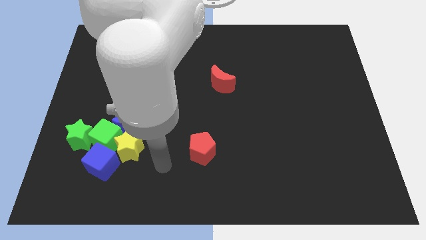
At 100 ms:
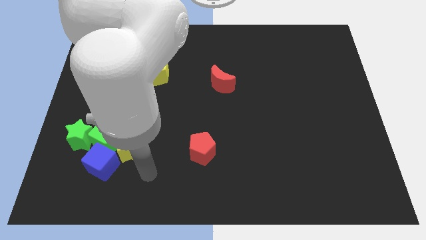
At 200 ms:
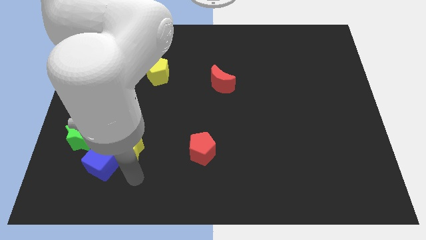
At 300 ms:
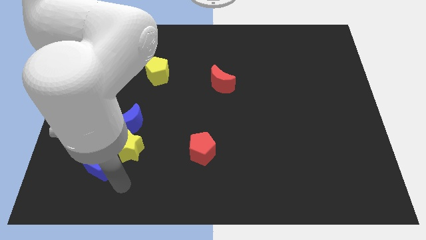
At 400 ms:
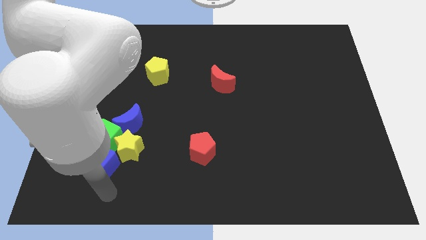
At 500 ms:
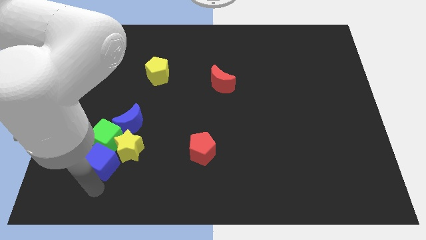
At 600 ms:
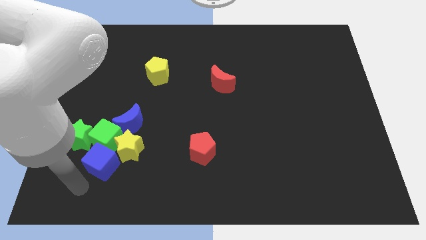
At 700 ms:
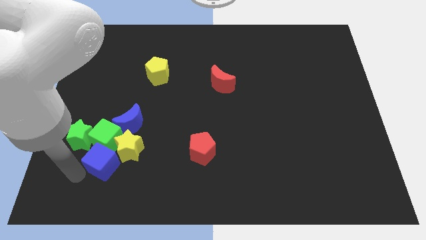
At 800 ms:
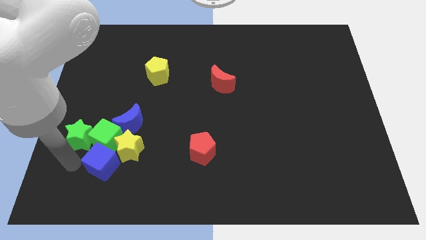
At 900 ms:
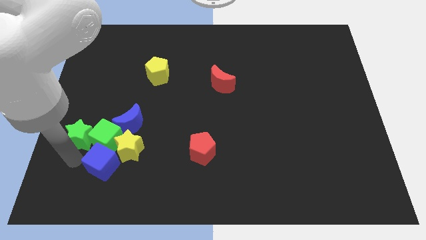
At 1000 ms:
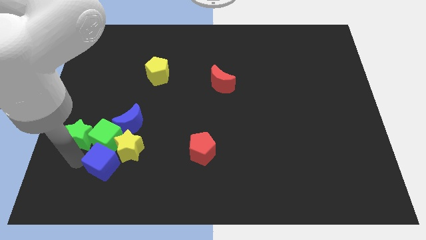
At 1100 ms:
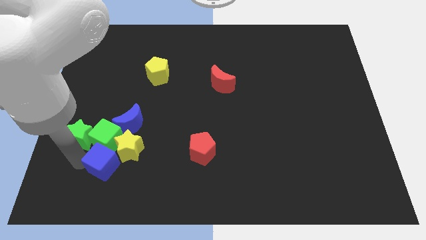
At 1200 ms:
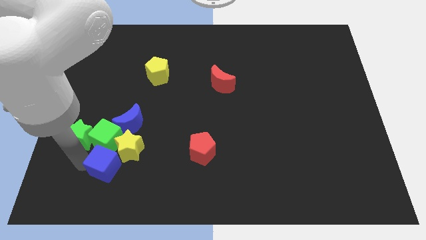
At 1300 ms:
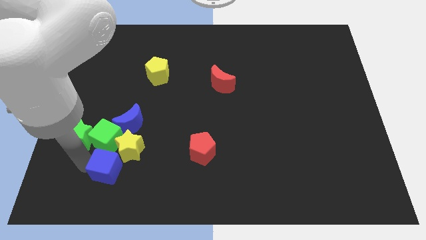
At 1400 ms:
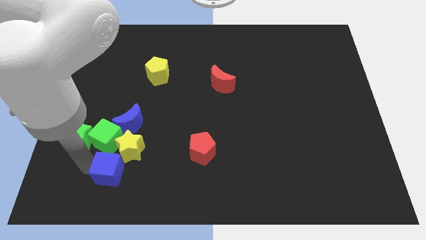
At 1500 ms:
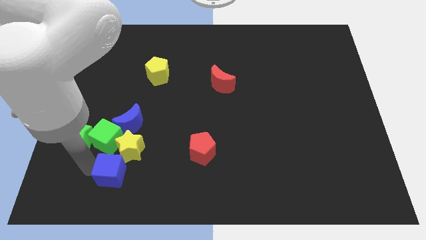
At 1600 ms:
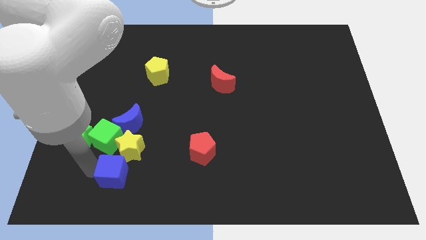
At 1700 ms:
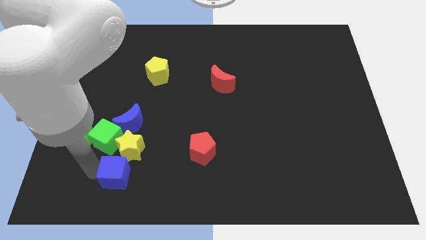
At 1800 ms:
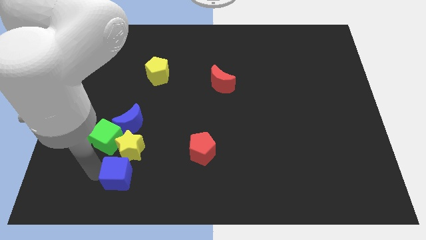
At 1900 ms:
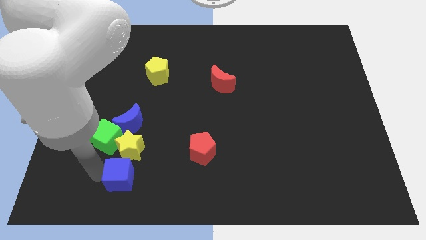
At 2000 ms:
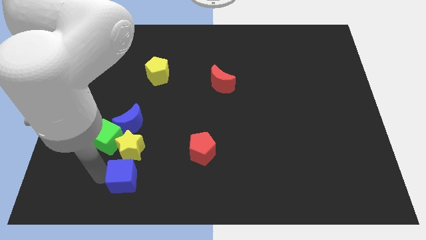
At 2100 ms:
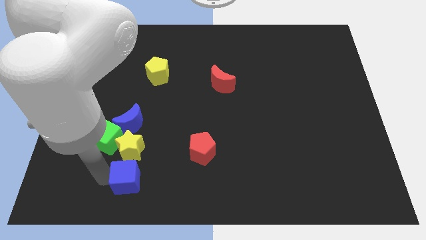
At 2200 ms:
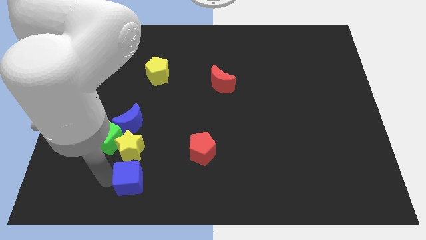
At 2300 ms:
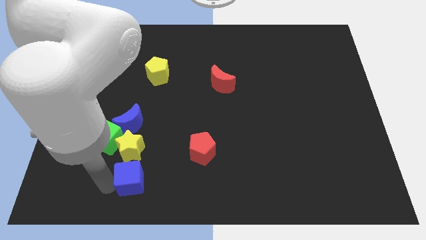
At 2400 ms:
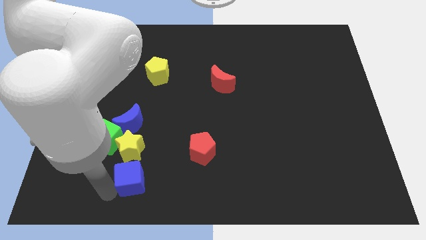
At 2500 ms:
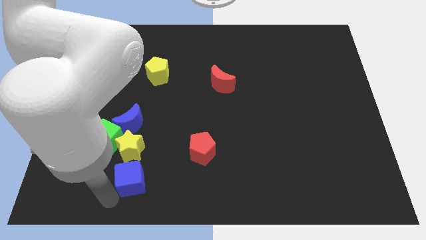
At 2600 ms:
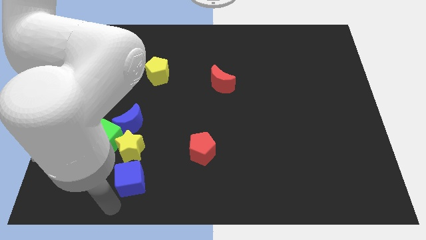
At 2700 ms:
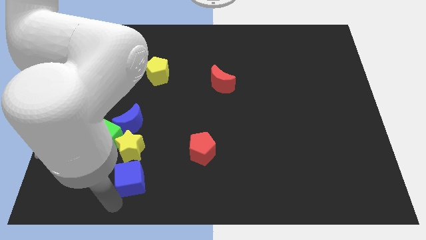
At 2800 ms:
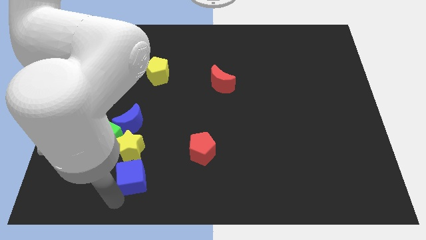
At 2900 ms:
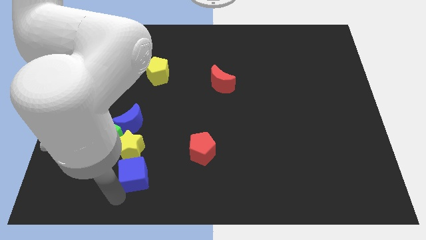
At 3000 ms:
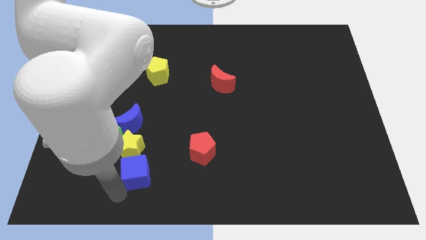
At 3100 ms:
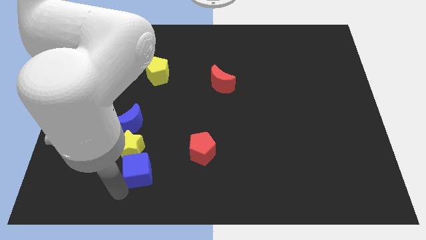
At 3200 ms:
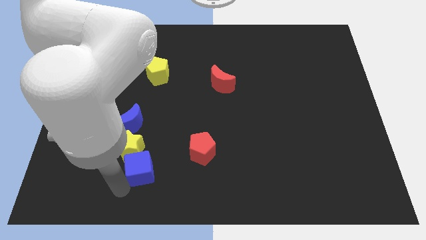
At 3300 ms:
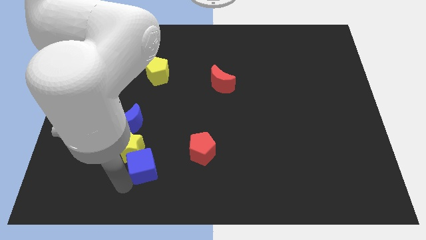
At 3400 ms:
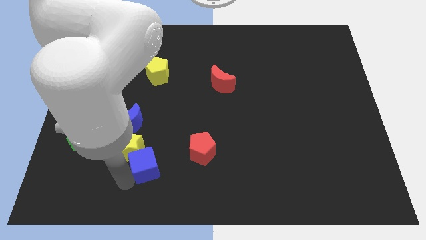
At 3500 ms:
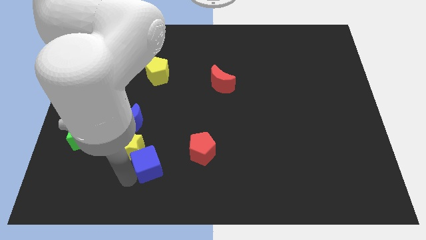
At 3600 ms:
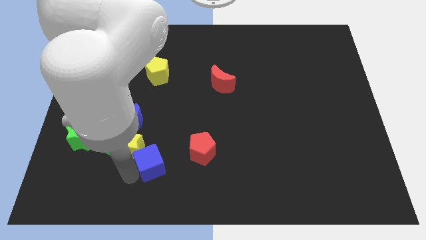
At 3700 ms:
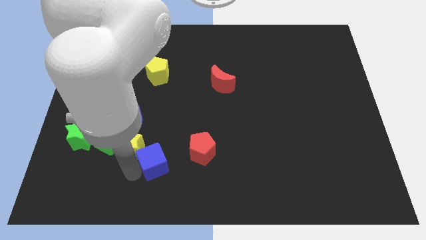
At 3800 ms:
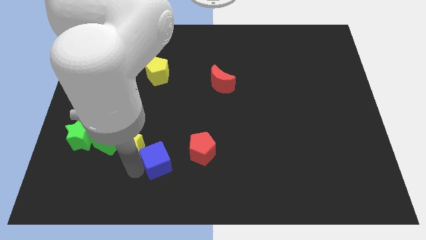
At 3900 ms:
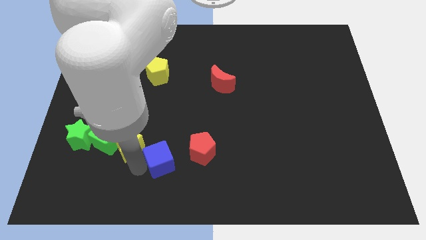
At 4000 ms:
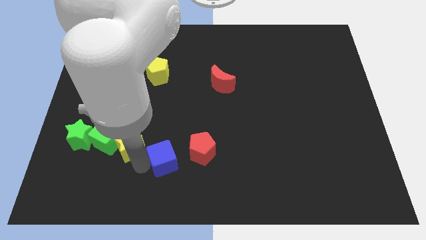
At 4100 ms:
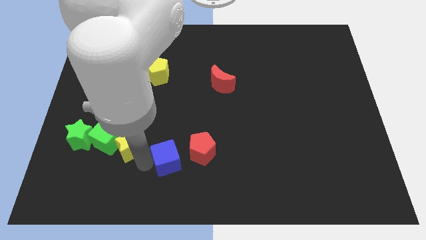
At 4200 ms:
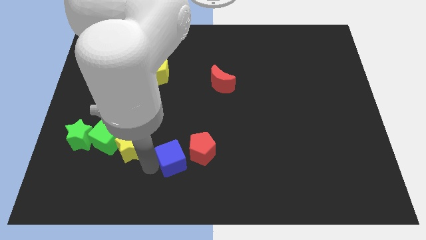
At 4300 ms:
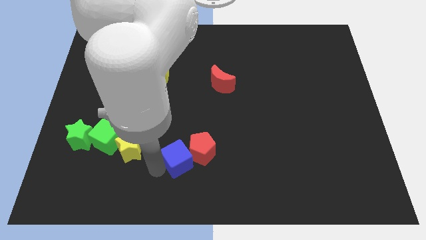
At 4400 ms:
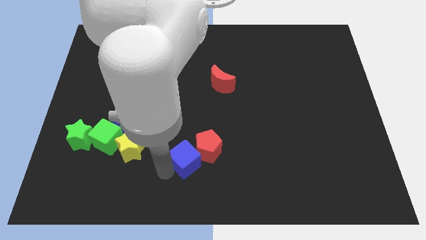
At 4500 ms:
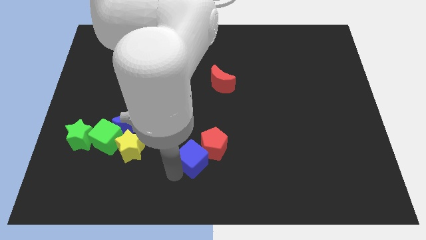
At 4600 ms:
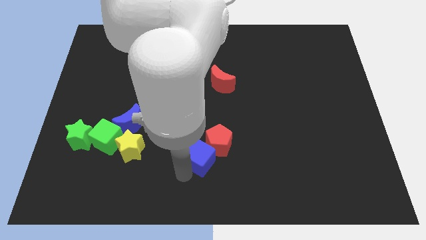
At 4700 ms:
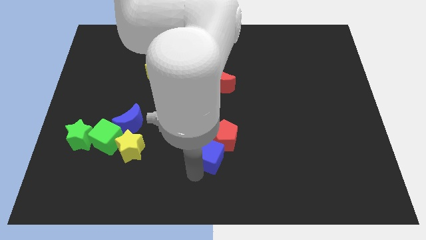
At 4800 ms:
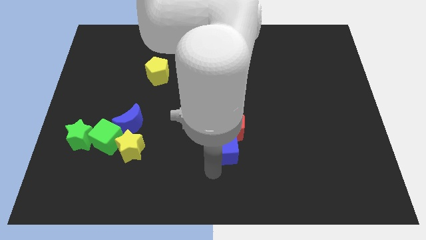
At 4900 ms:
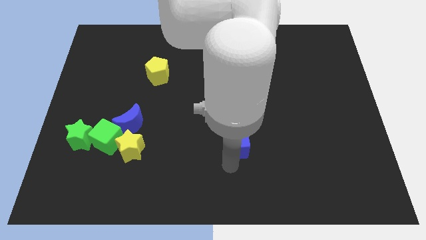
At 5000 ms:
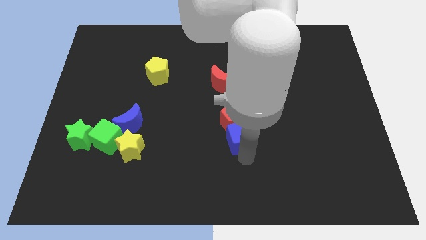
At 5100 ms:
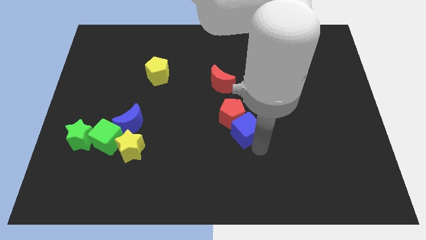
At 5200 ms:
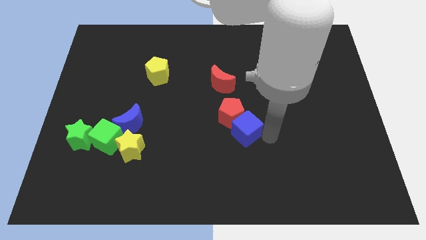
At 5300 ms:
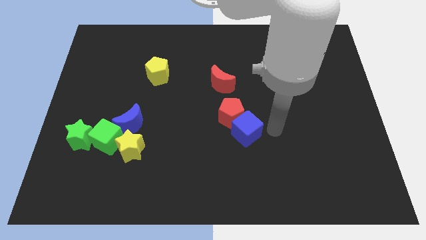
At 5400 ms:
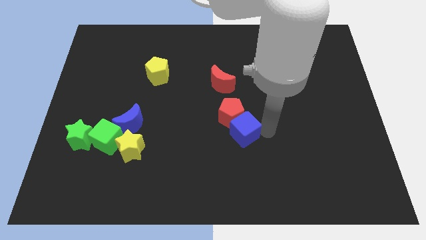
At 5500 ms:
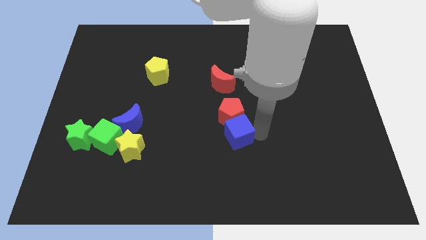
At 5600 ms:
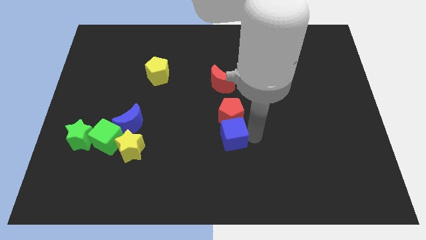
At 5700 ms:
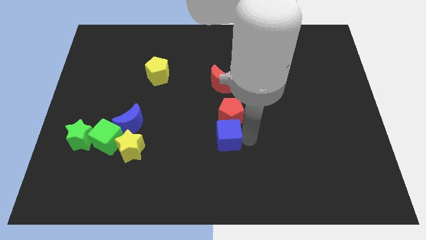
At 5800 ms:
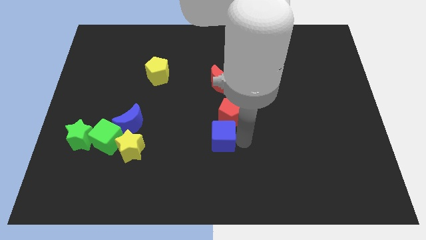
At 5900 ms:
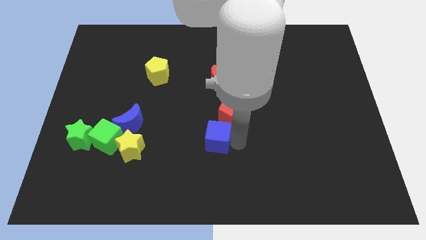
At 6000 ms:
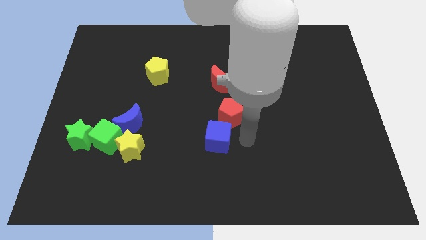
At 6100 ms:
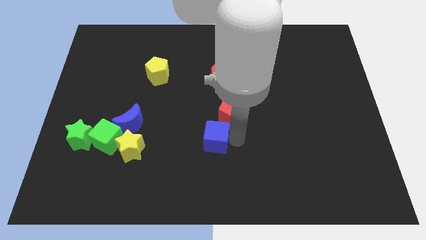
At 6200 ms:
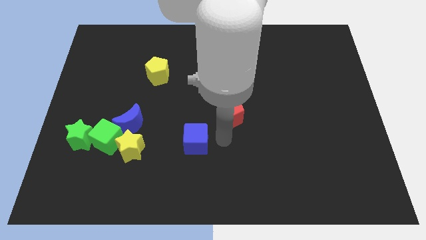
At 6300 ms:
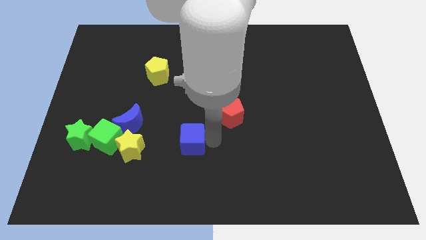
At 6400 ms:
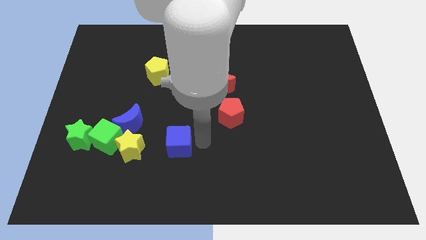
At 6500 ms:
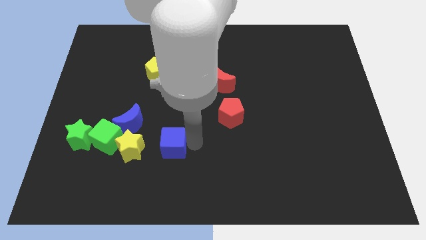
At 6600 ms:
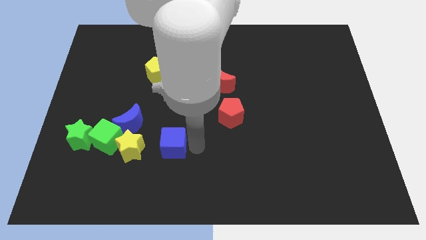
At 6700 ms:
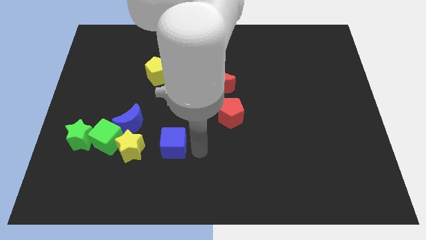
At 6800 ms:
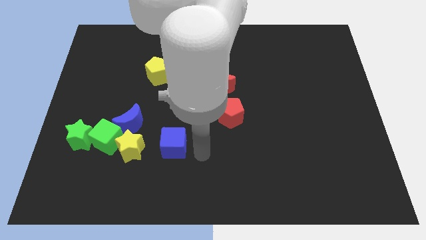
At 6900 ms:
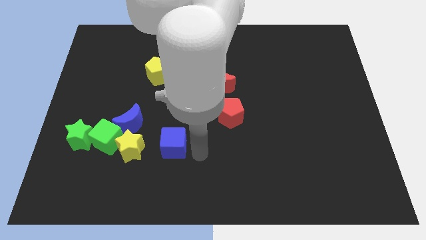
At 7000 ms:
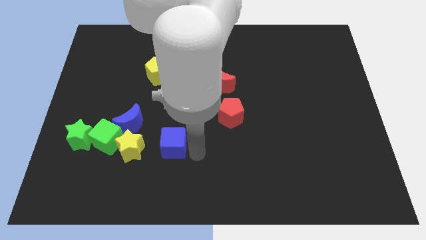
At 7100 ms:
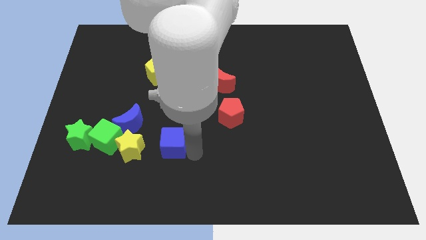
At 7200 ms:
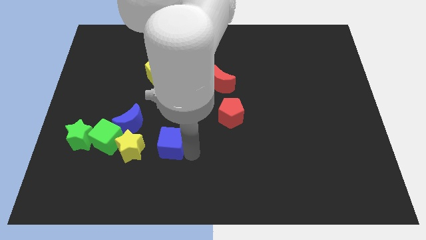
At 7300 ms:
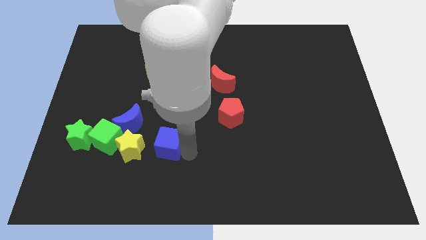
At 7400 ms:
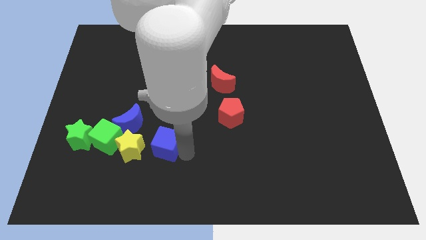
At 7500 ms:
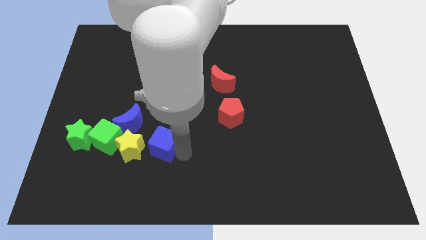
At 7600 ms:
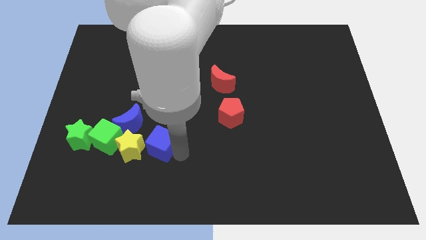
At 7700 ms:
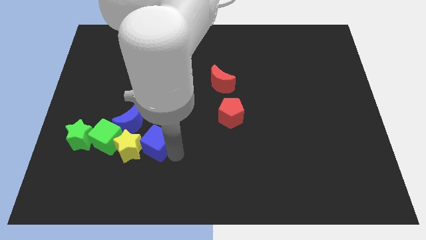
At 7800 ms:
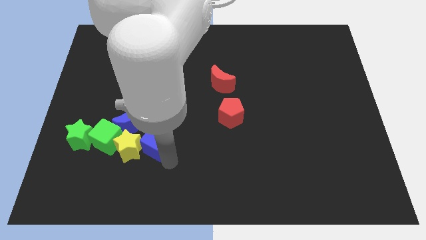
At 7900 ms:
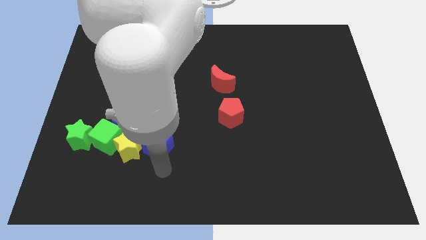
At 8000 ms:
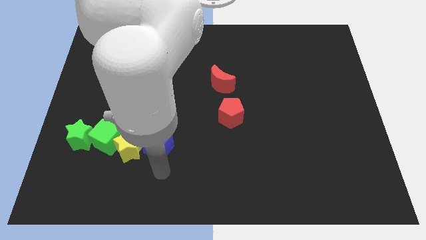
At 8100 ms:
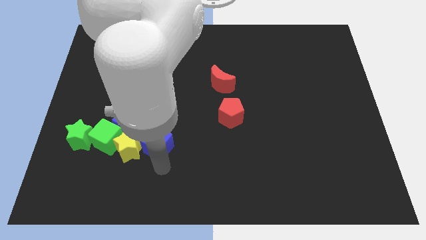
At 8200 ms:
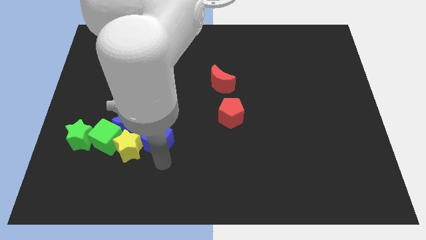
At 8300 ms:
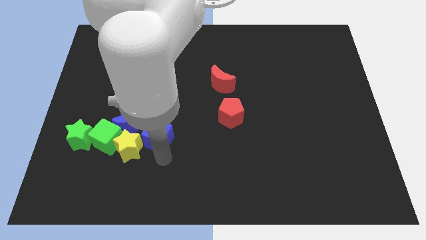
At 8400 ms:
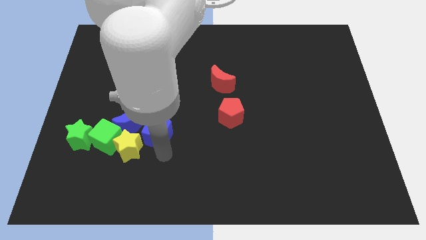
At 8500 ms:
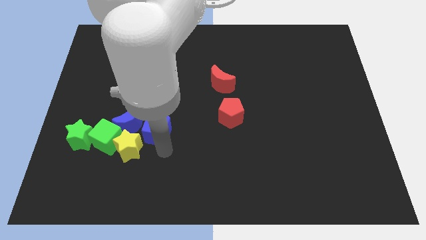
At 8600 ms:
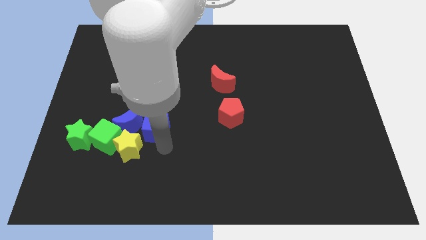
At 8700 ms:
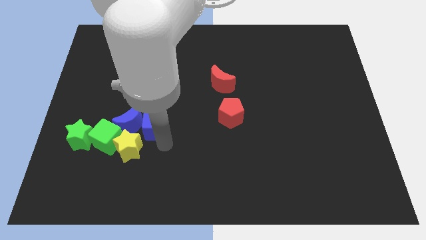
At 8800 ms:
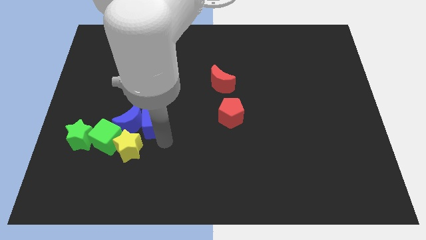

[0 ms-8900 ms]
put the blue cube to the bottom side of the yellow pentagon
